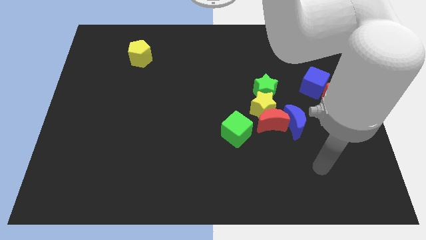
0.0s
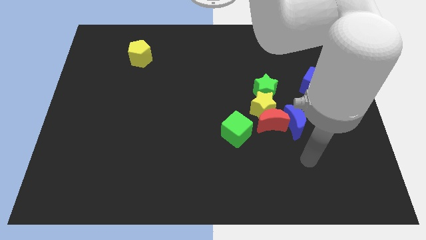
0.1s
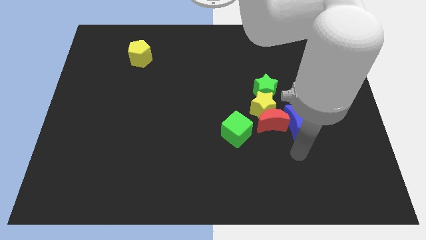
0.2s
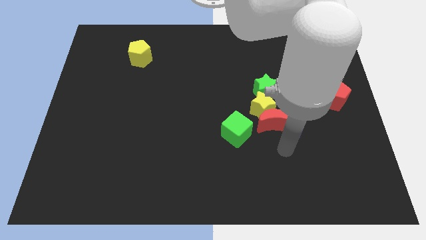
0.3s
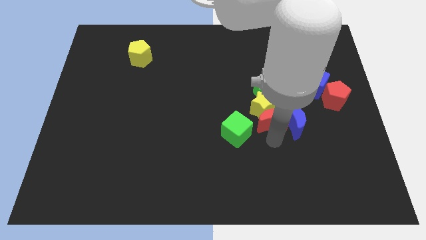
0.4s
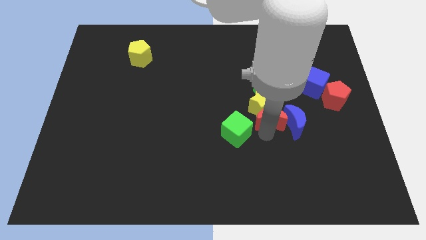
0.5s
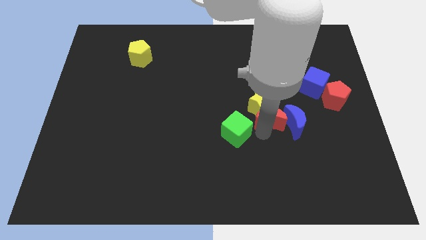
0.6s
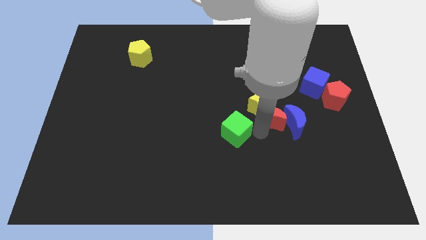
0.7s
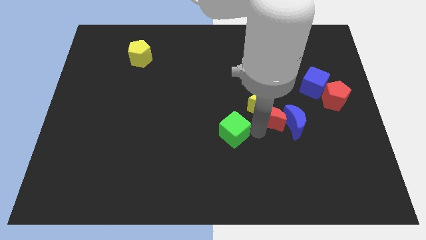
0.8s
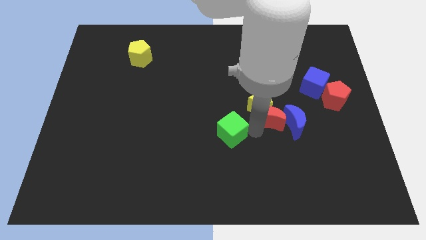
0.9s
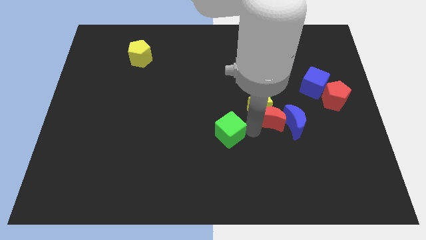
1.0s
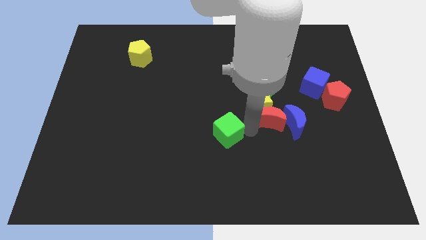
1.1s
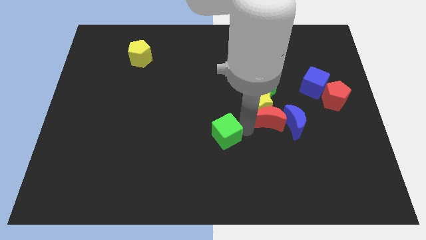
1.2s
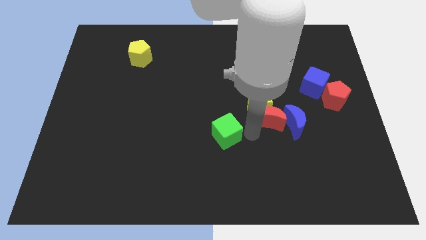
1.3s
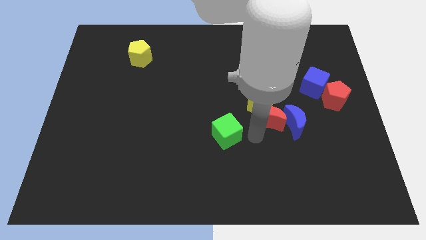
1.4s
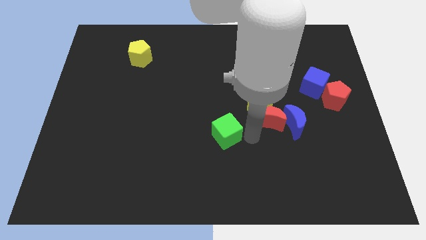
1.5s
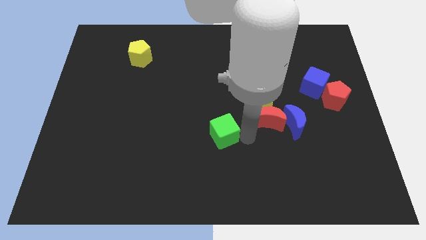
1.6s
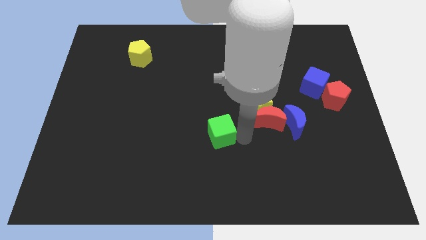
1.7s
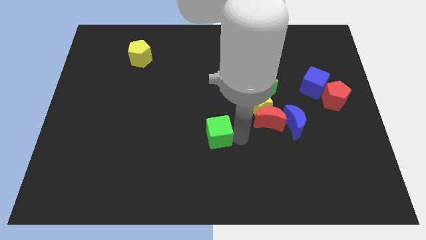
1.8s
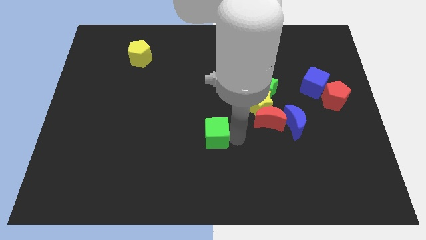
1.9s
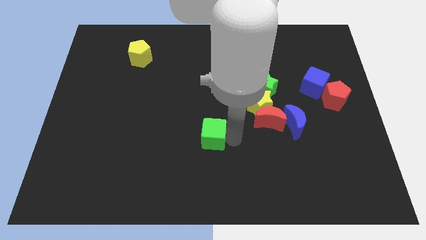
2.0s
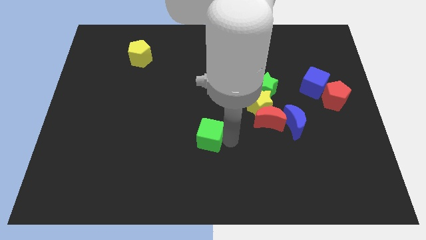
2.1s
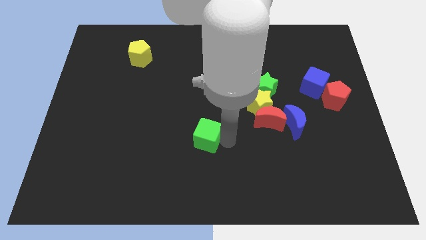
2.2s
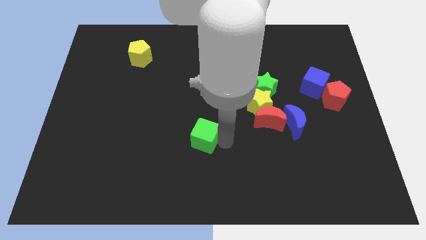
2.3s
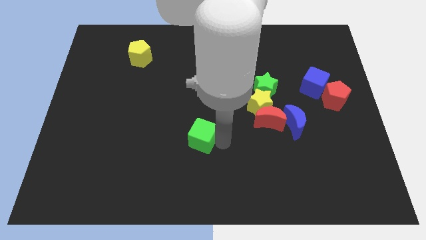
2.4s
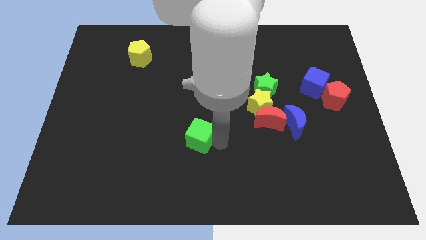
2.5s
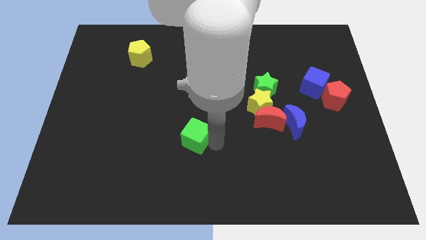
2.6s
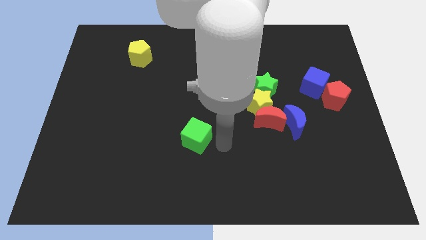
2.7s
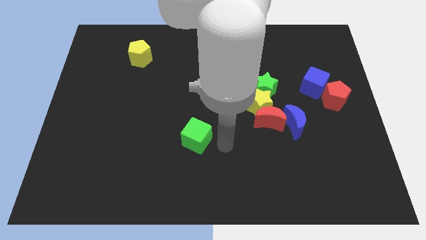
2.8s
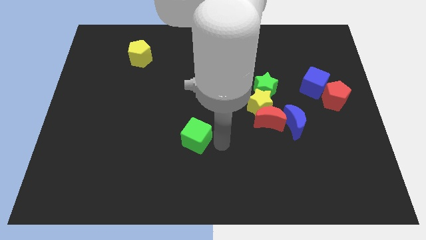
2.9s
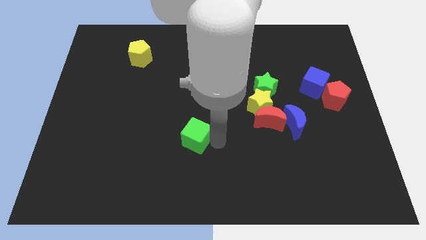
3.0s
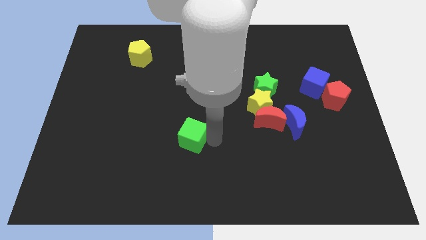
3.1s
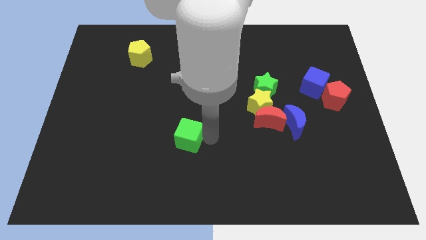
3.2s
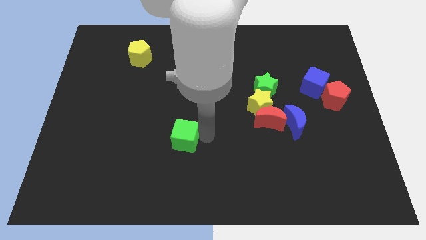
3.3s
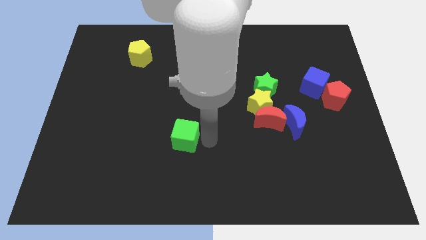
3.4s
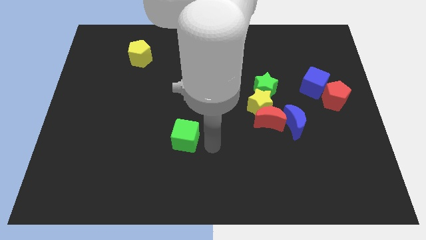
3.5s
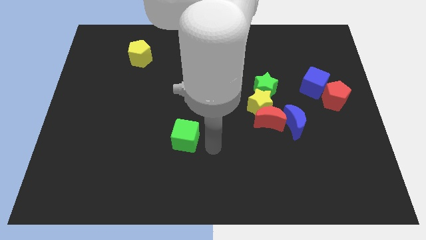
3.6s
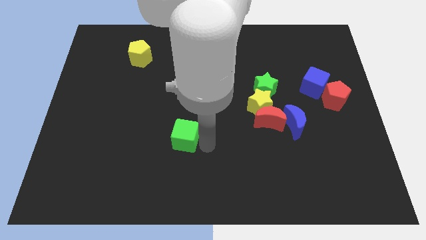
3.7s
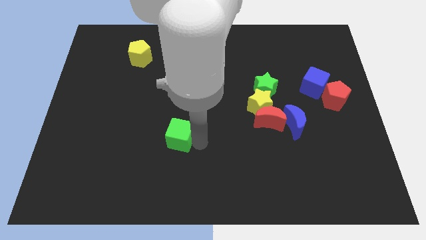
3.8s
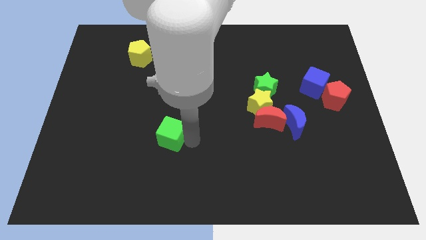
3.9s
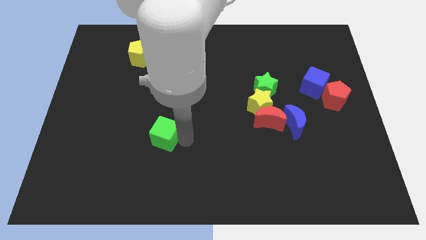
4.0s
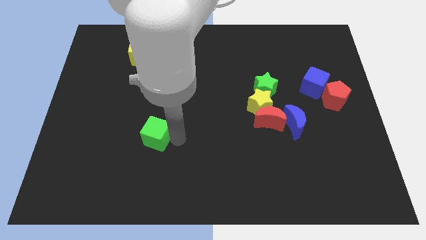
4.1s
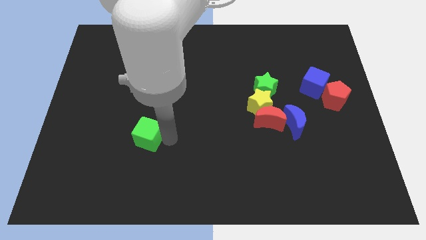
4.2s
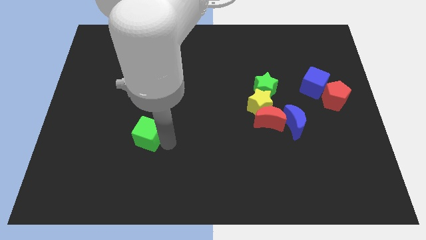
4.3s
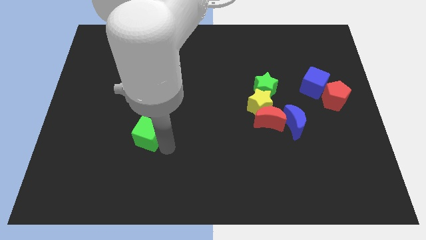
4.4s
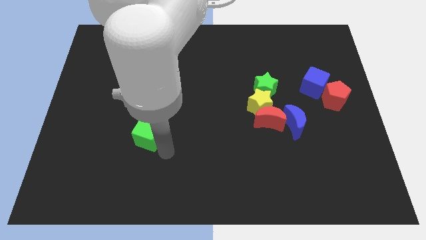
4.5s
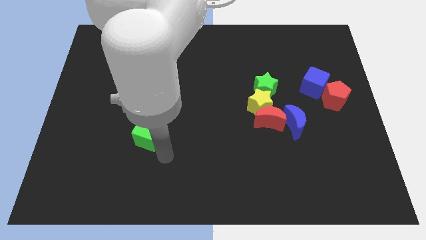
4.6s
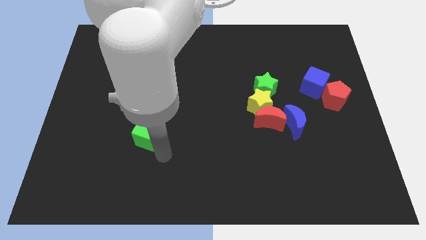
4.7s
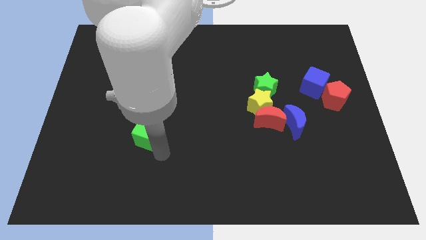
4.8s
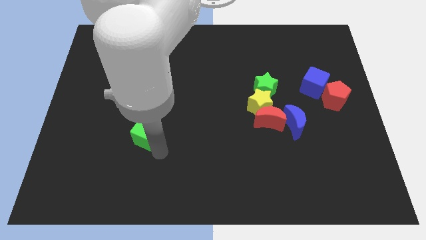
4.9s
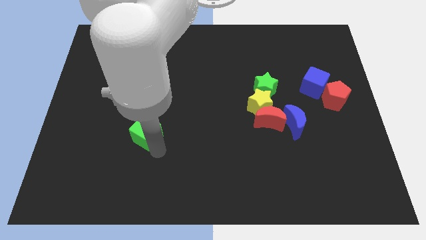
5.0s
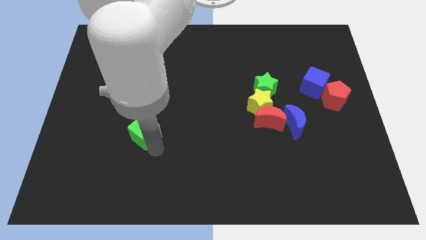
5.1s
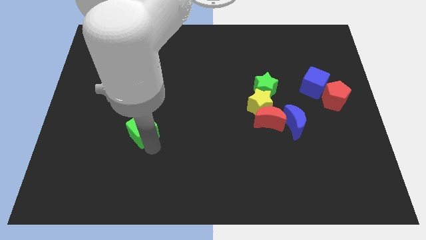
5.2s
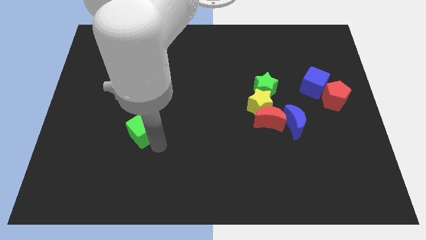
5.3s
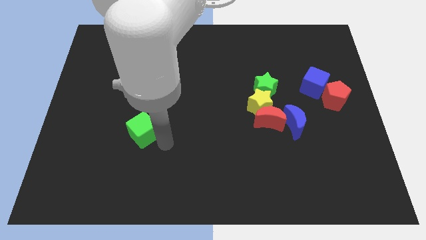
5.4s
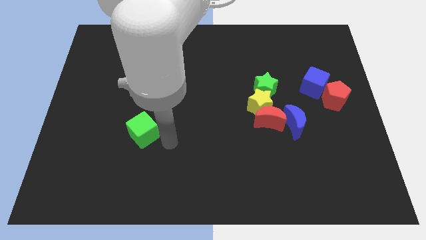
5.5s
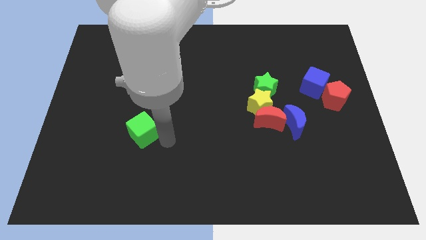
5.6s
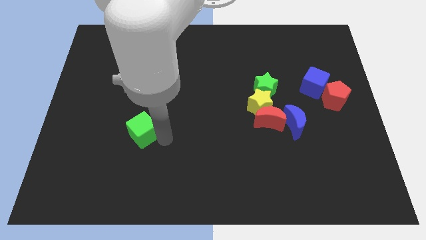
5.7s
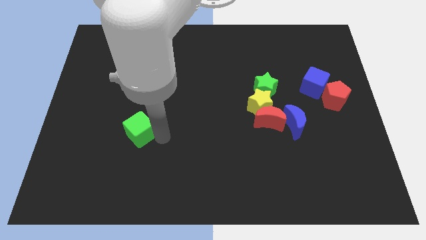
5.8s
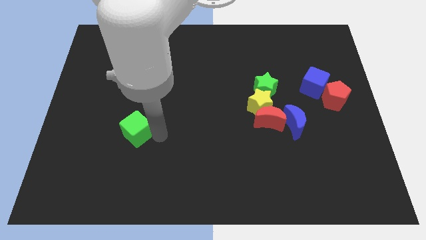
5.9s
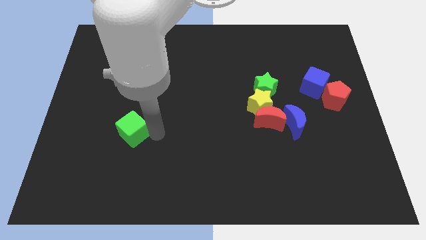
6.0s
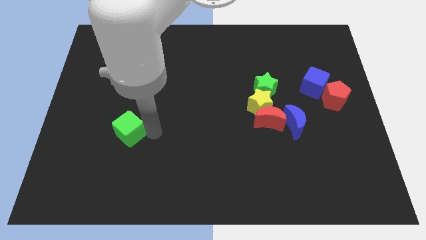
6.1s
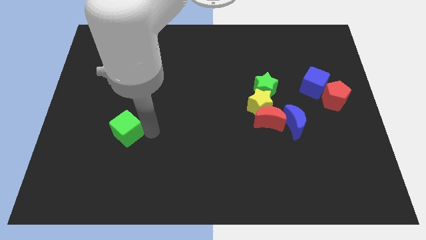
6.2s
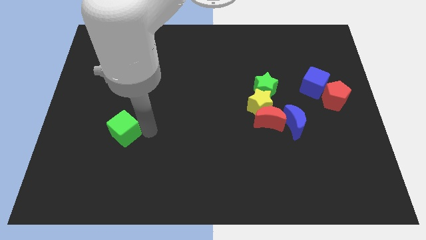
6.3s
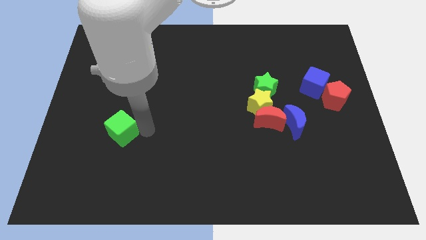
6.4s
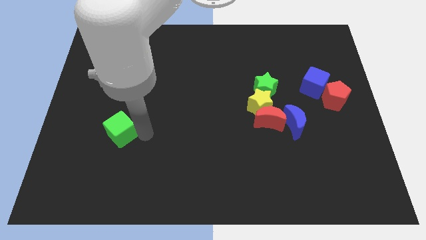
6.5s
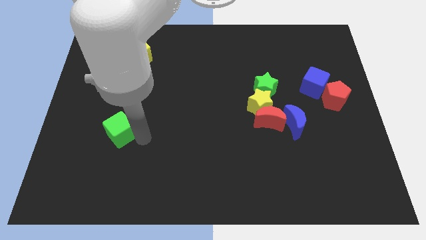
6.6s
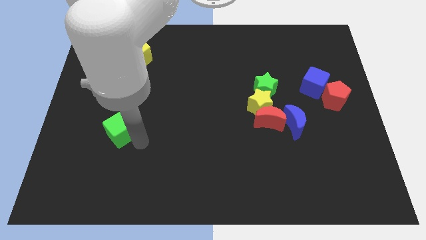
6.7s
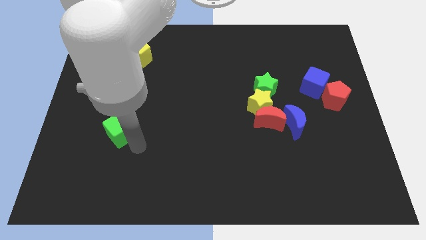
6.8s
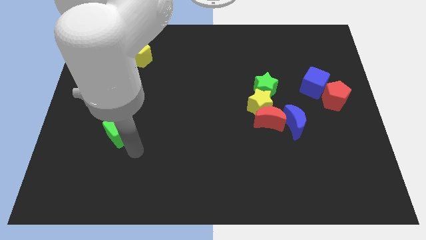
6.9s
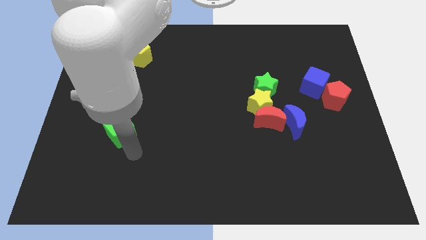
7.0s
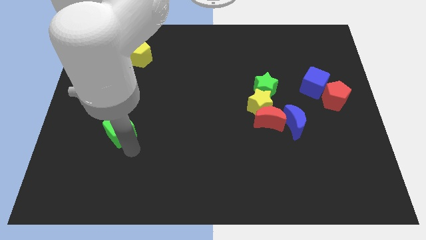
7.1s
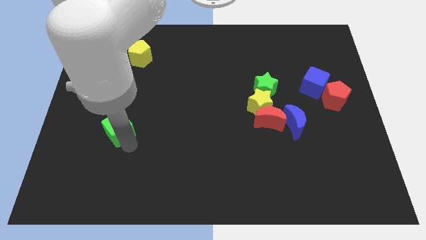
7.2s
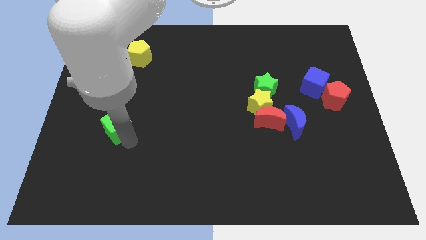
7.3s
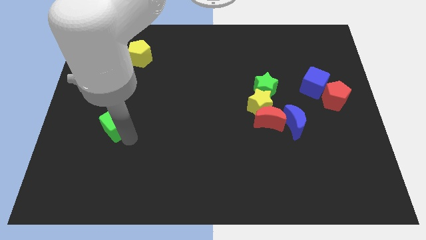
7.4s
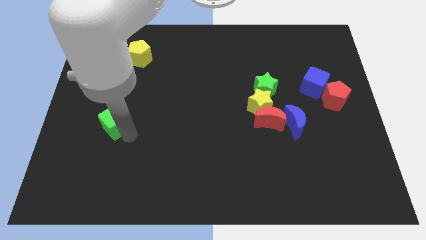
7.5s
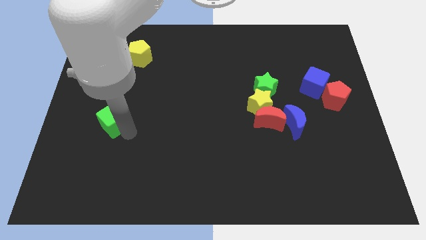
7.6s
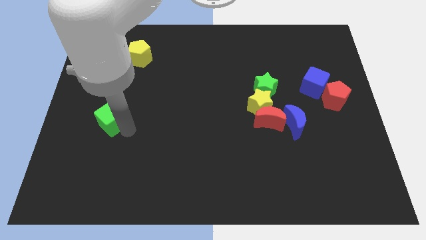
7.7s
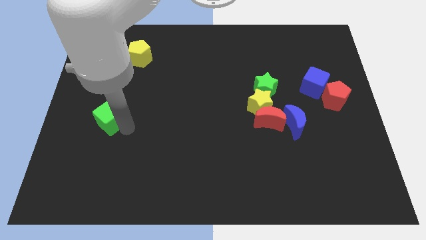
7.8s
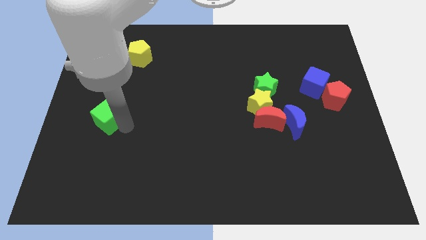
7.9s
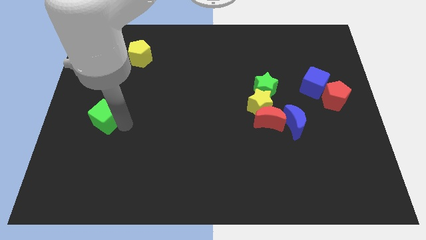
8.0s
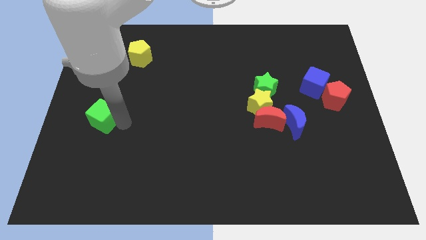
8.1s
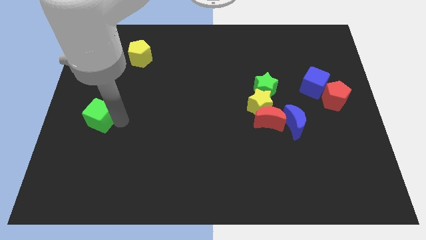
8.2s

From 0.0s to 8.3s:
put the green cube to the center left
